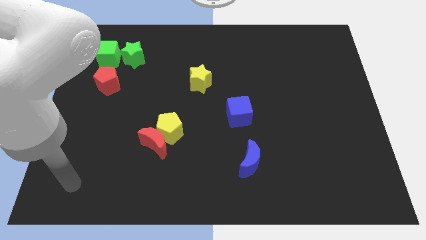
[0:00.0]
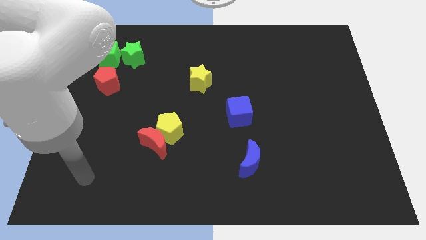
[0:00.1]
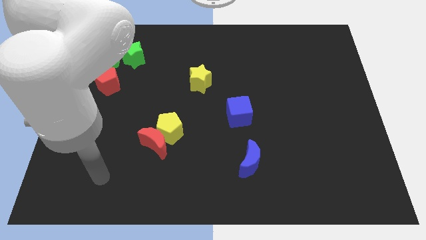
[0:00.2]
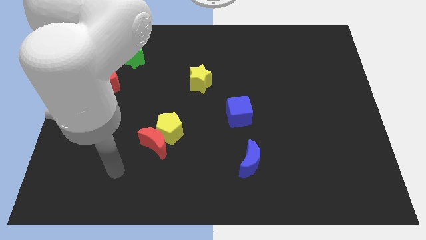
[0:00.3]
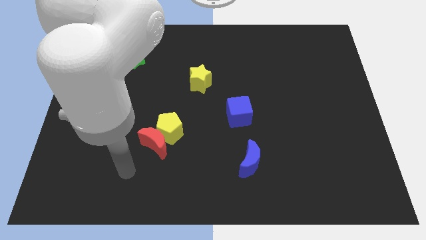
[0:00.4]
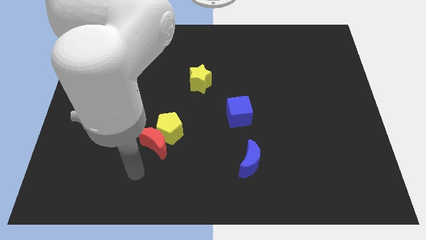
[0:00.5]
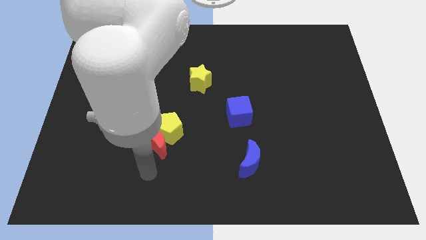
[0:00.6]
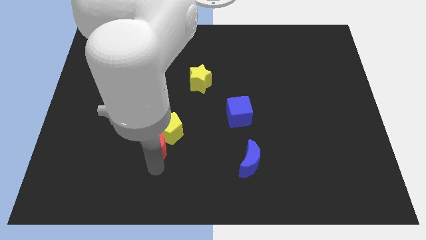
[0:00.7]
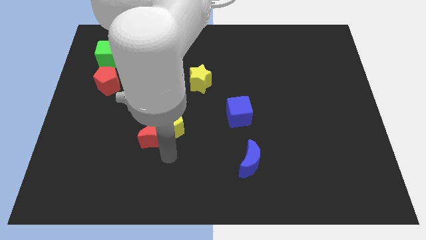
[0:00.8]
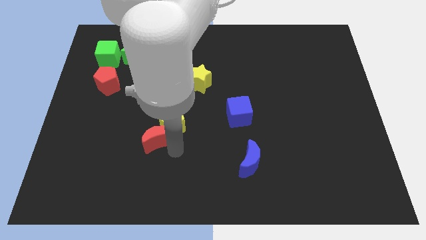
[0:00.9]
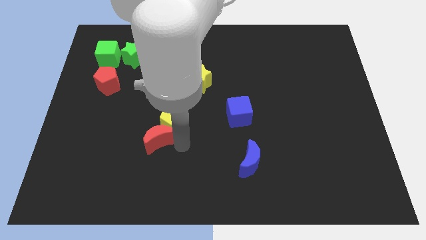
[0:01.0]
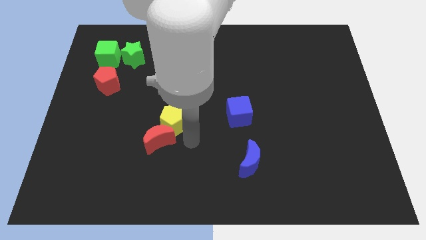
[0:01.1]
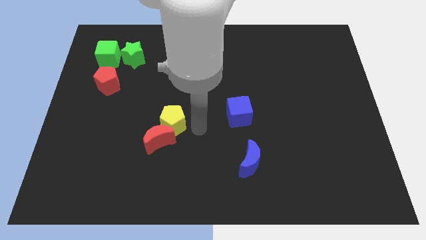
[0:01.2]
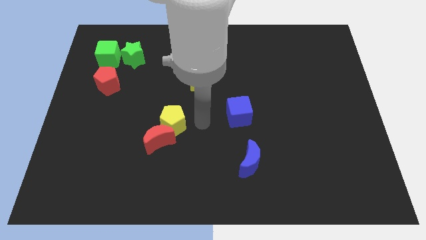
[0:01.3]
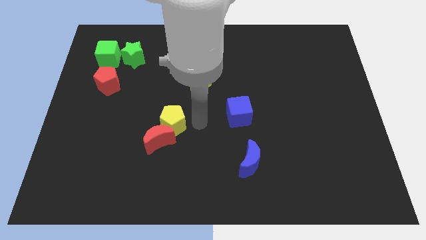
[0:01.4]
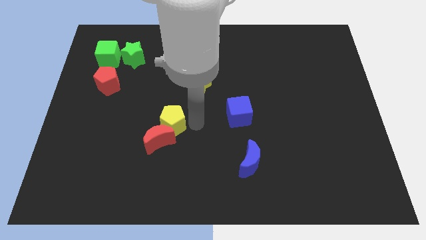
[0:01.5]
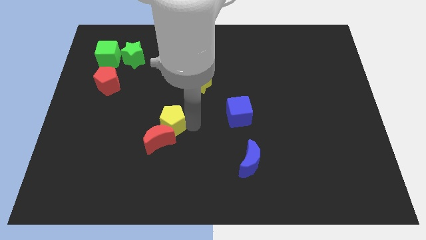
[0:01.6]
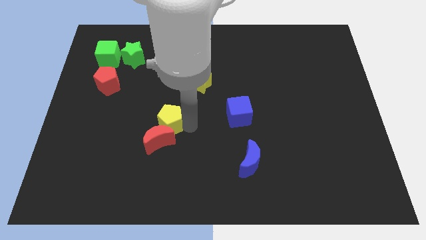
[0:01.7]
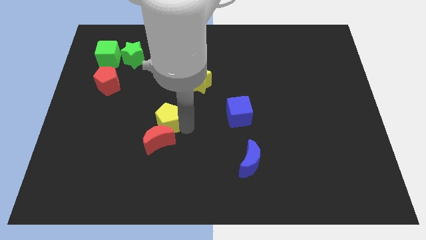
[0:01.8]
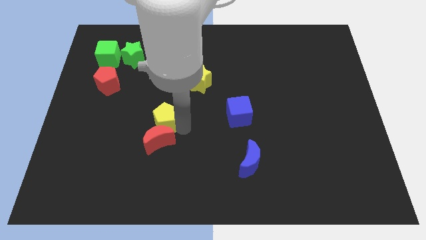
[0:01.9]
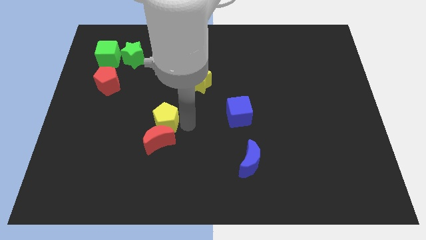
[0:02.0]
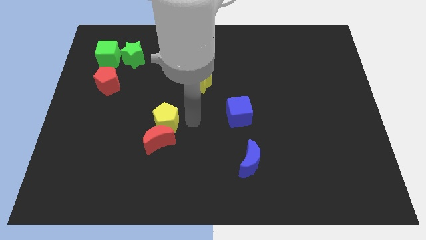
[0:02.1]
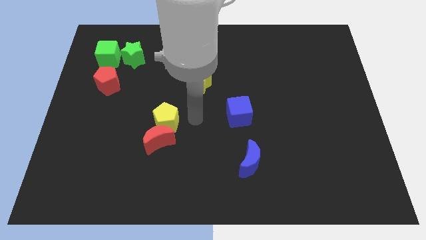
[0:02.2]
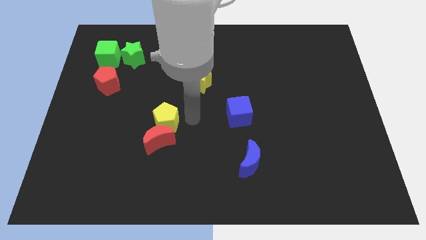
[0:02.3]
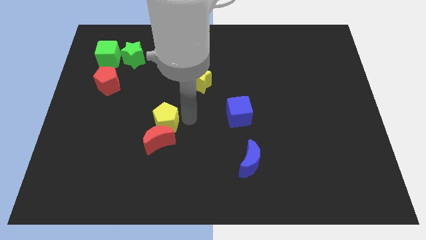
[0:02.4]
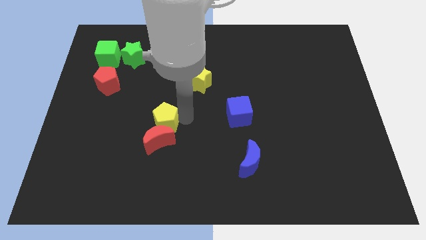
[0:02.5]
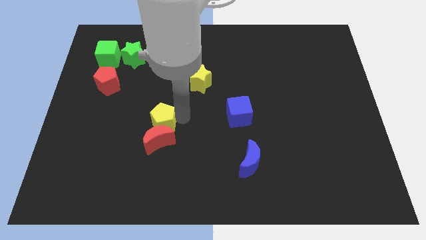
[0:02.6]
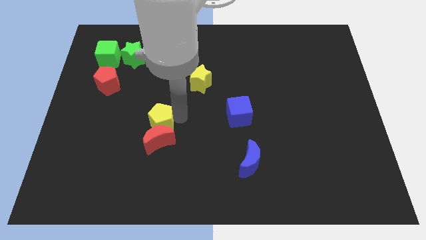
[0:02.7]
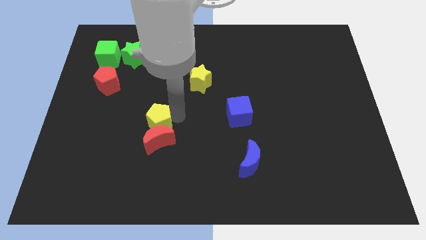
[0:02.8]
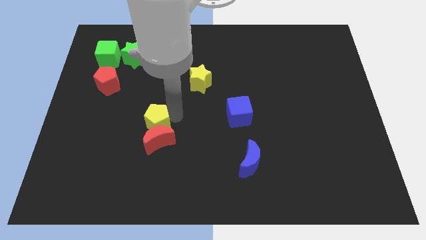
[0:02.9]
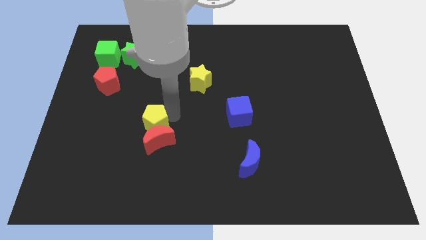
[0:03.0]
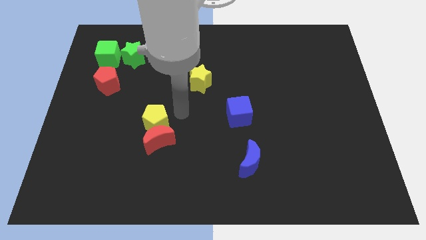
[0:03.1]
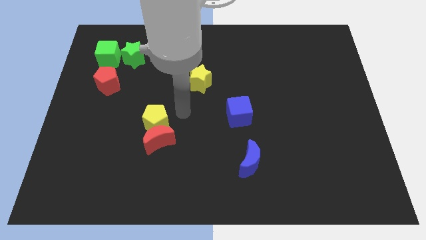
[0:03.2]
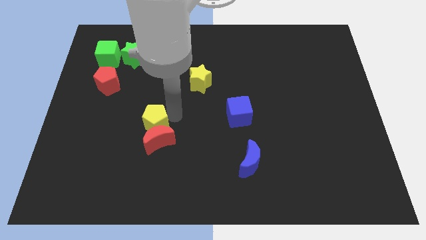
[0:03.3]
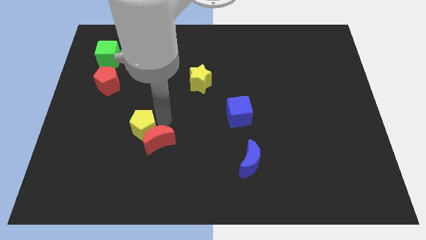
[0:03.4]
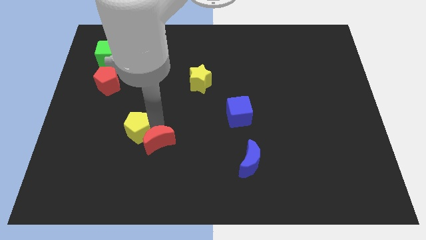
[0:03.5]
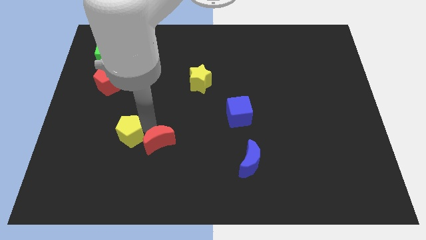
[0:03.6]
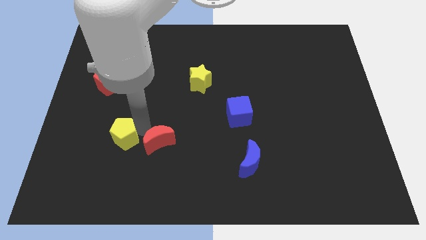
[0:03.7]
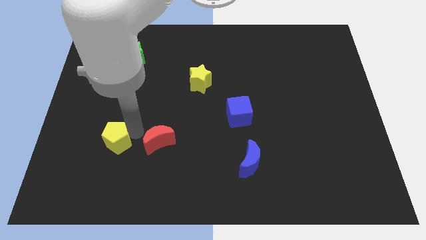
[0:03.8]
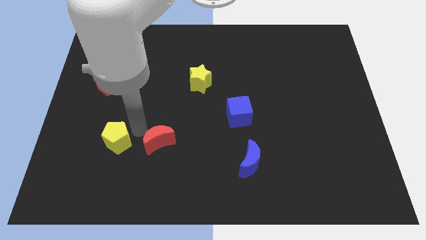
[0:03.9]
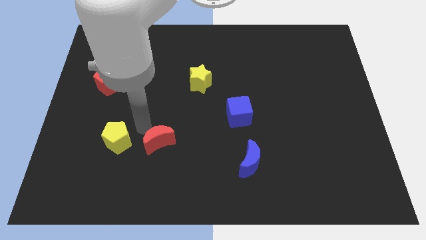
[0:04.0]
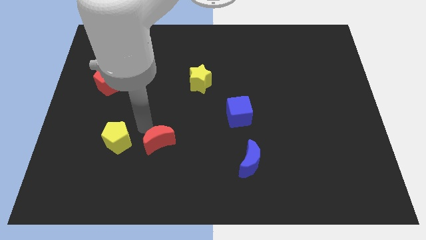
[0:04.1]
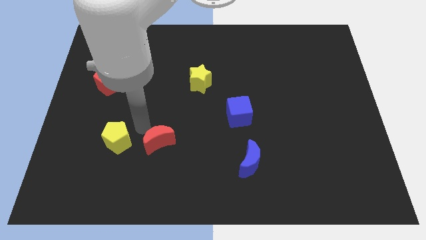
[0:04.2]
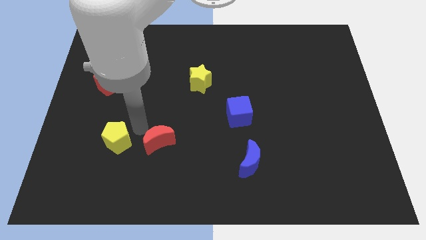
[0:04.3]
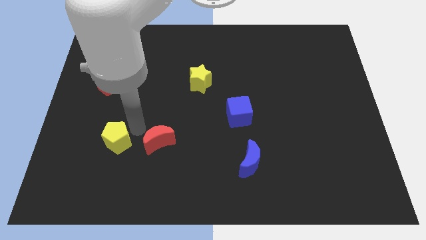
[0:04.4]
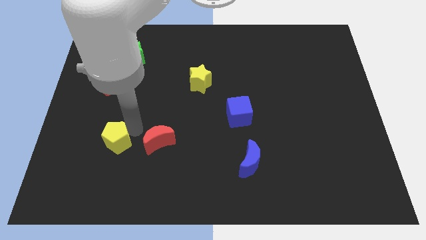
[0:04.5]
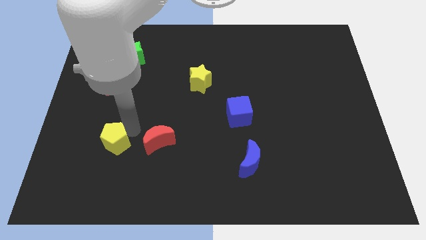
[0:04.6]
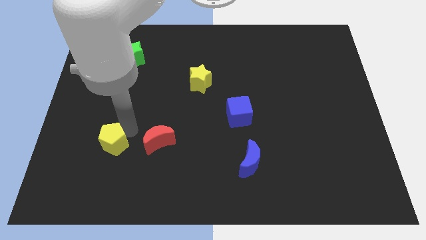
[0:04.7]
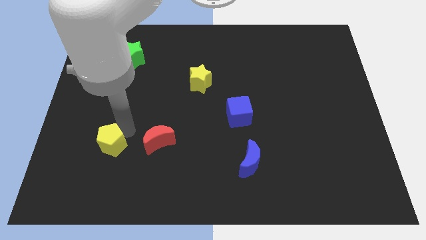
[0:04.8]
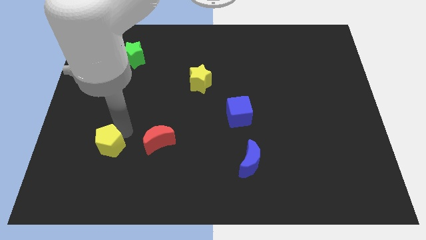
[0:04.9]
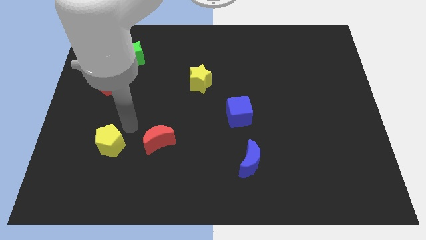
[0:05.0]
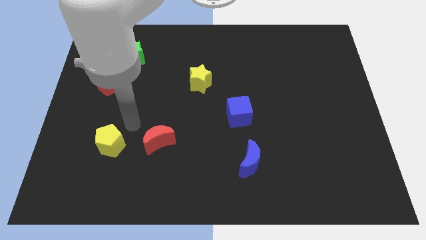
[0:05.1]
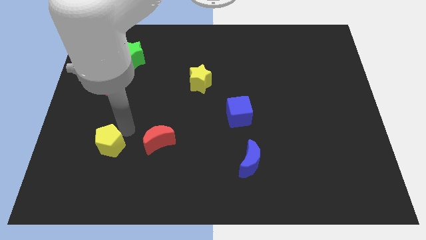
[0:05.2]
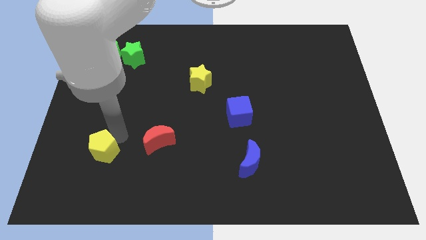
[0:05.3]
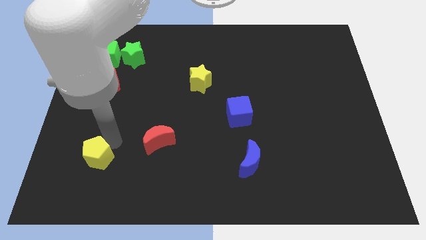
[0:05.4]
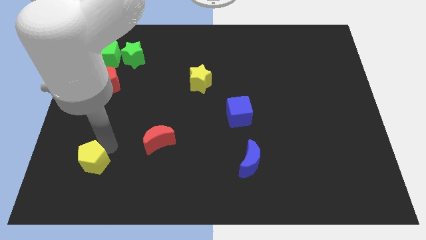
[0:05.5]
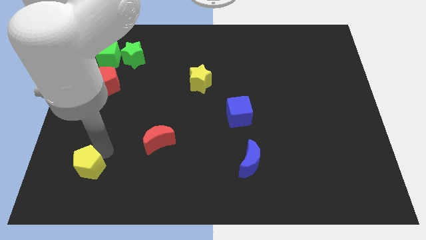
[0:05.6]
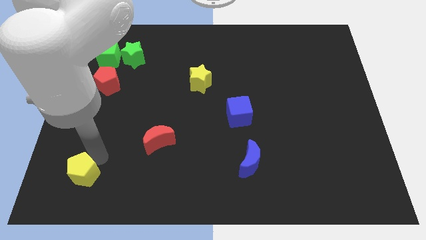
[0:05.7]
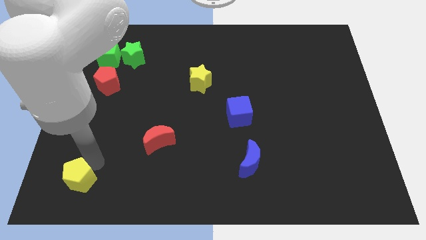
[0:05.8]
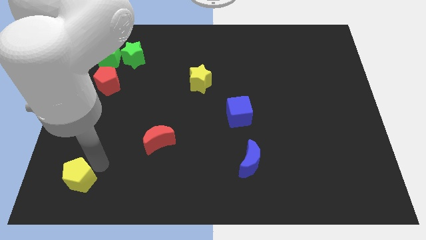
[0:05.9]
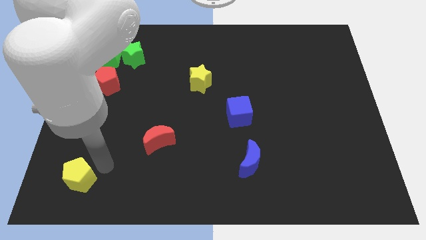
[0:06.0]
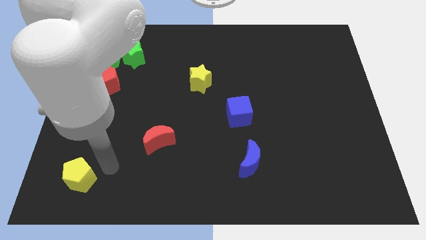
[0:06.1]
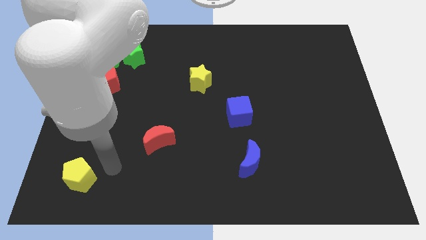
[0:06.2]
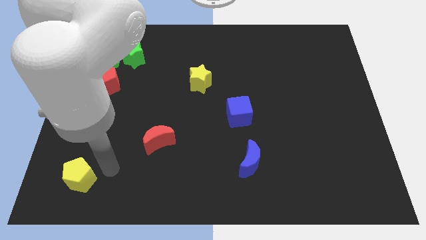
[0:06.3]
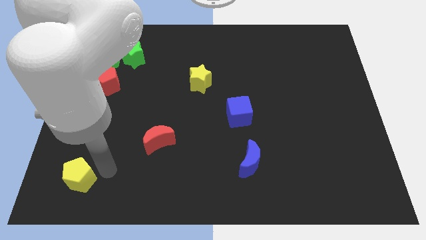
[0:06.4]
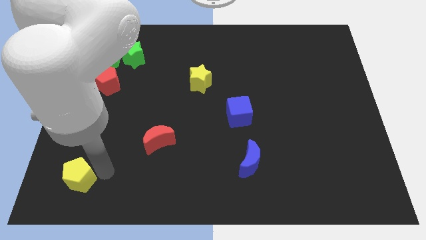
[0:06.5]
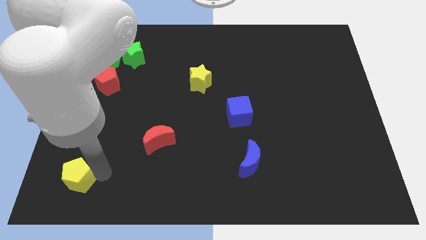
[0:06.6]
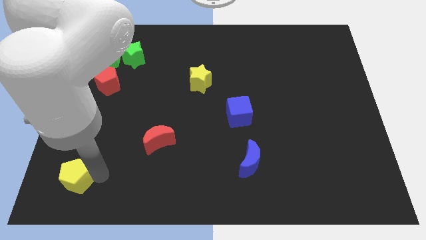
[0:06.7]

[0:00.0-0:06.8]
push the yellow pentagon to the bottom left
